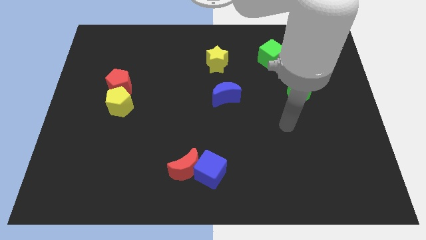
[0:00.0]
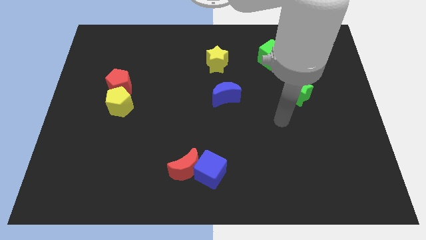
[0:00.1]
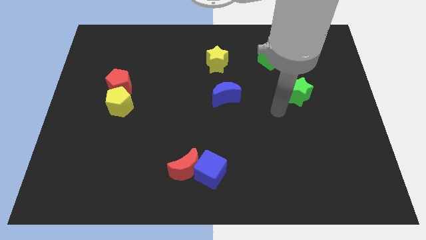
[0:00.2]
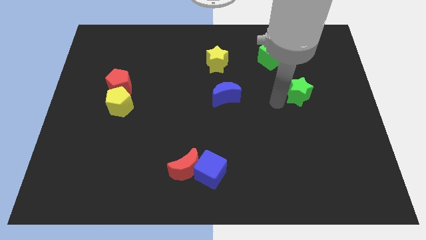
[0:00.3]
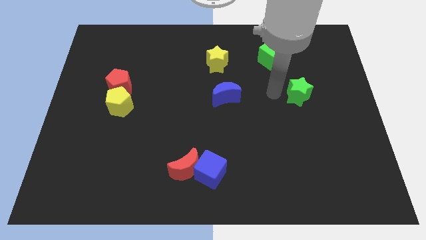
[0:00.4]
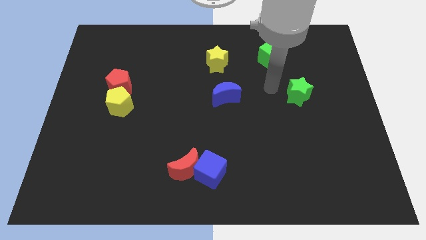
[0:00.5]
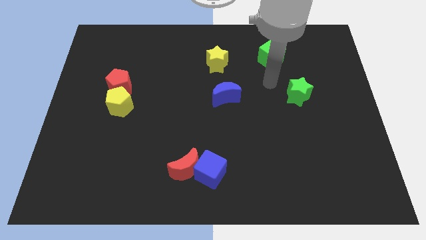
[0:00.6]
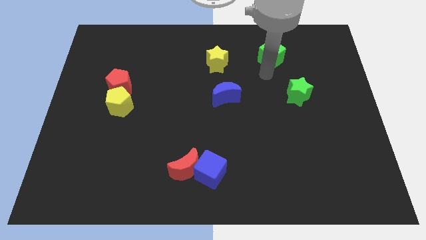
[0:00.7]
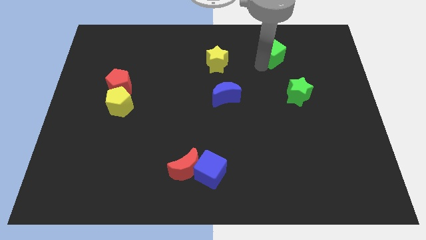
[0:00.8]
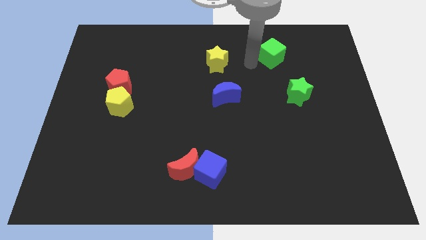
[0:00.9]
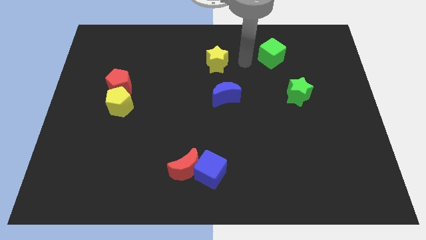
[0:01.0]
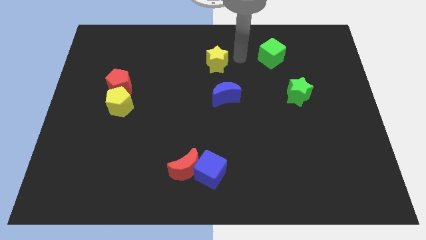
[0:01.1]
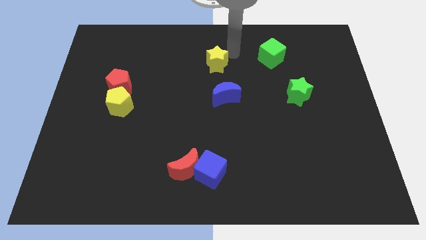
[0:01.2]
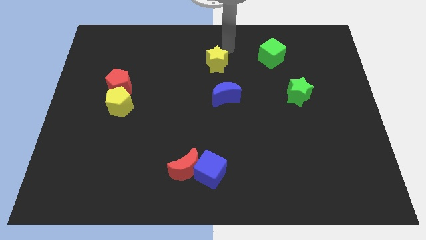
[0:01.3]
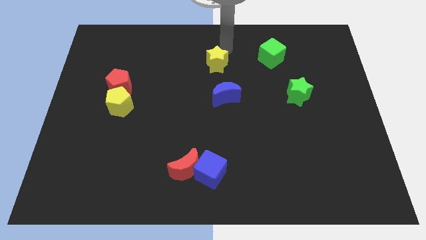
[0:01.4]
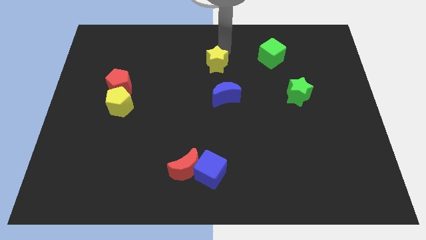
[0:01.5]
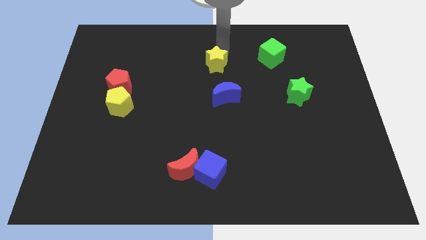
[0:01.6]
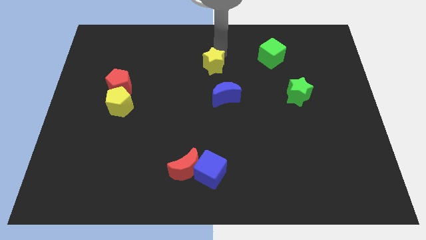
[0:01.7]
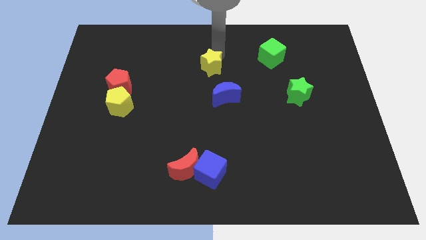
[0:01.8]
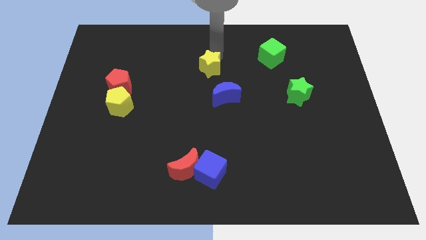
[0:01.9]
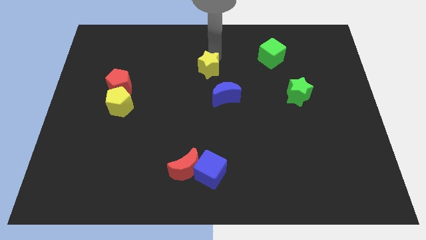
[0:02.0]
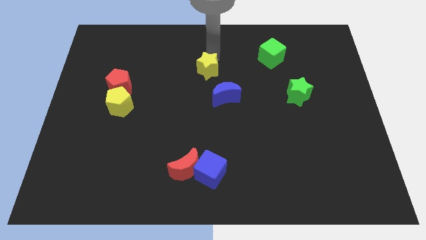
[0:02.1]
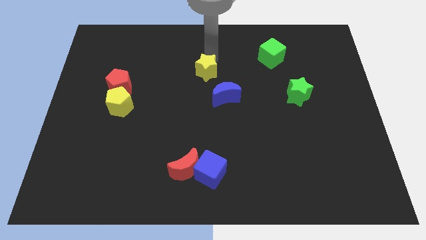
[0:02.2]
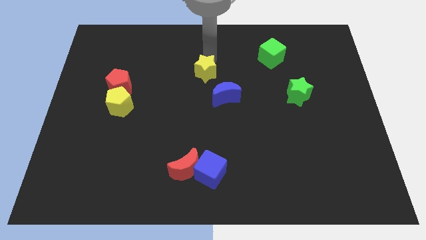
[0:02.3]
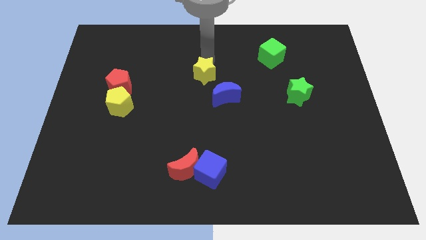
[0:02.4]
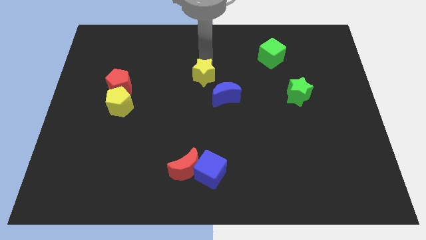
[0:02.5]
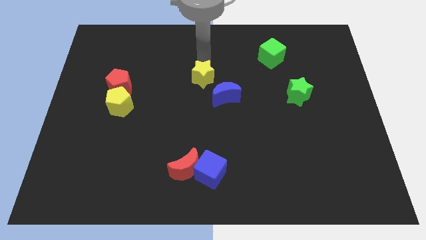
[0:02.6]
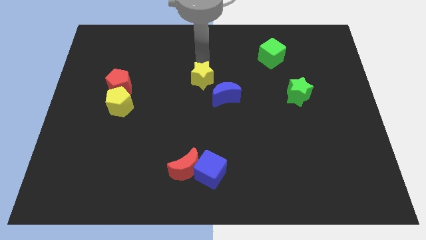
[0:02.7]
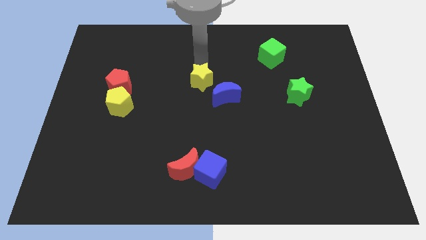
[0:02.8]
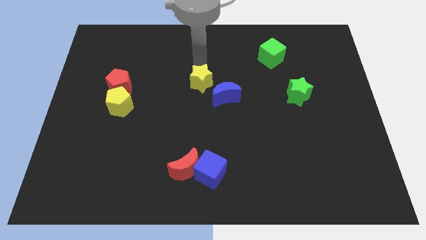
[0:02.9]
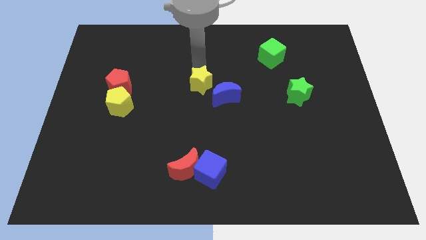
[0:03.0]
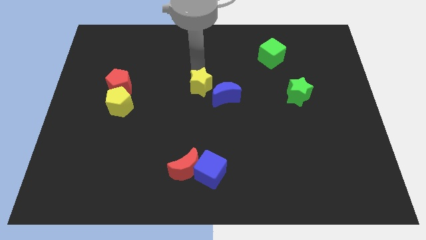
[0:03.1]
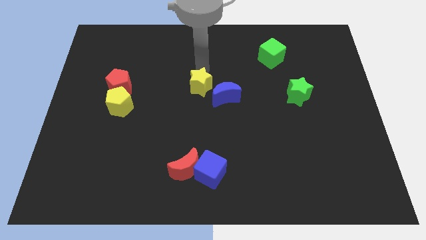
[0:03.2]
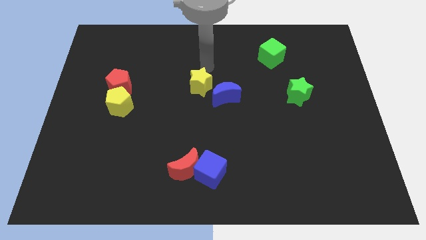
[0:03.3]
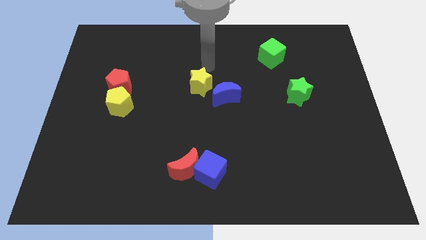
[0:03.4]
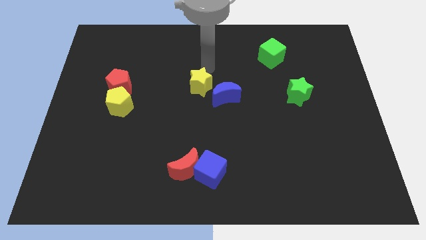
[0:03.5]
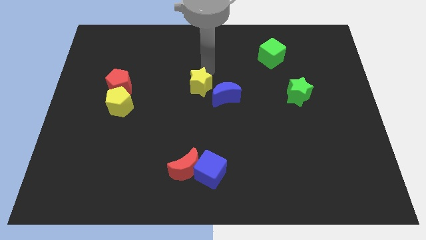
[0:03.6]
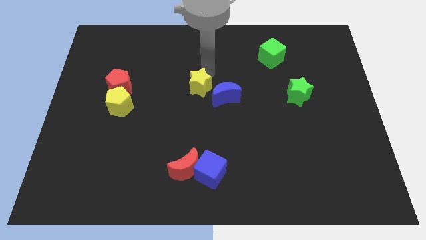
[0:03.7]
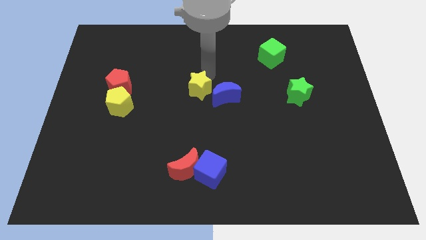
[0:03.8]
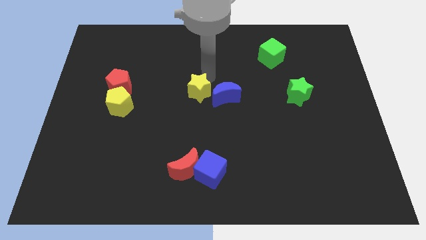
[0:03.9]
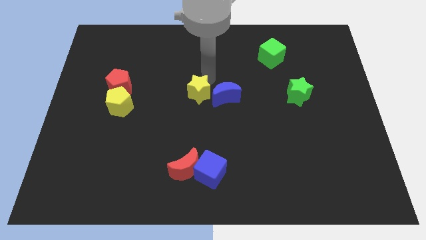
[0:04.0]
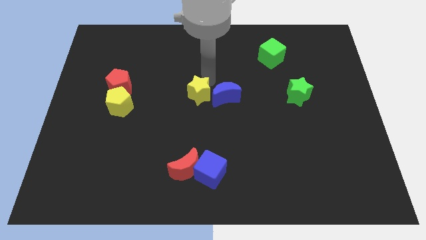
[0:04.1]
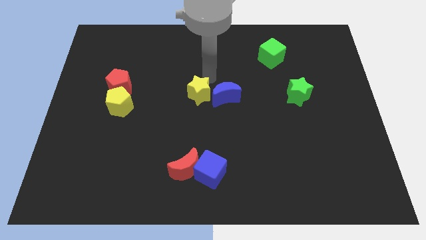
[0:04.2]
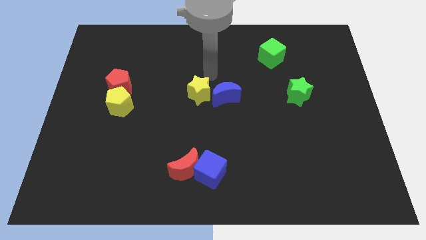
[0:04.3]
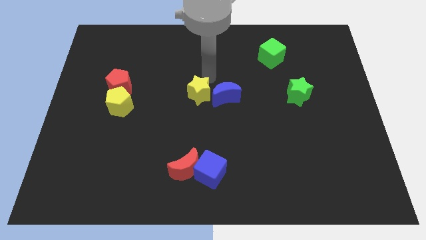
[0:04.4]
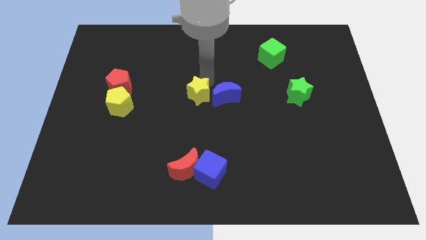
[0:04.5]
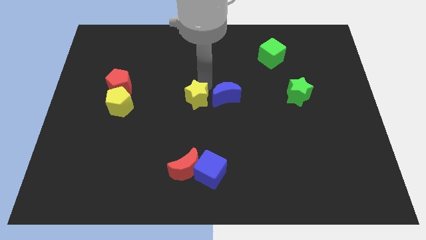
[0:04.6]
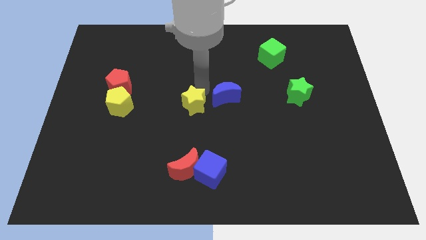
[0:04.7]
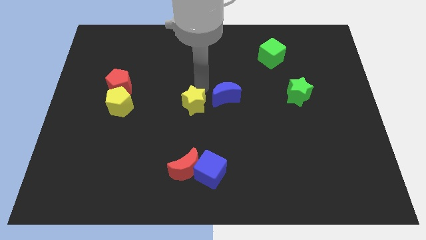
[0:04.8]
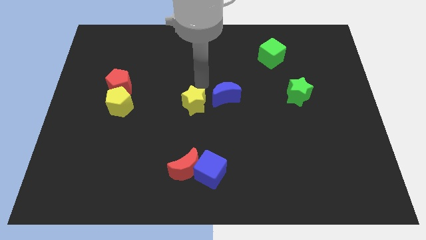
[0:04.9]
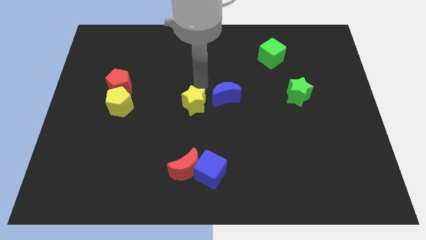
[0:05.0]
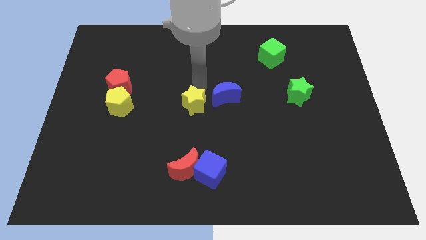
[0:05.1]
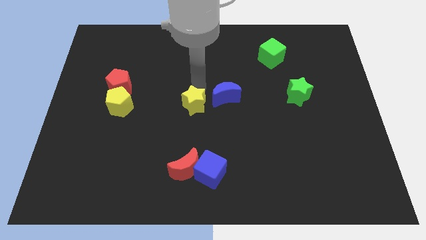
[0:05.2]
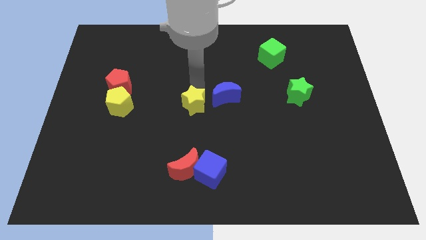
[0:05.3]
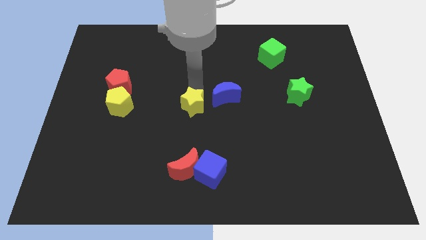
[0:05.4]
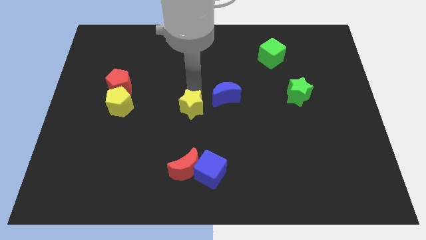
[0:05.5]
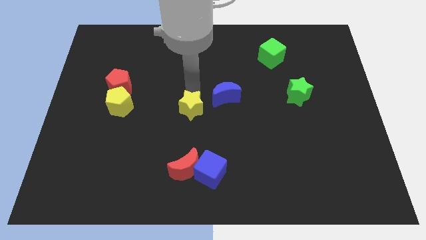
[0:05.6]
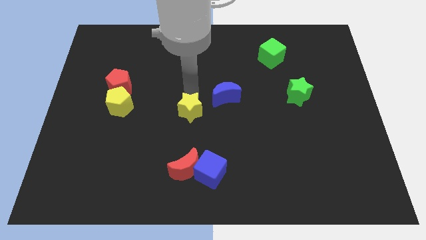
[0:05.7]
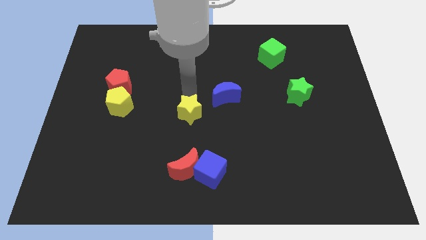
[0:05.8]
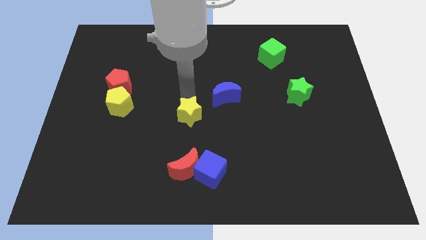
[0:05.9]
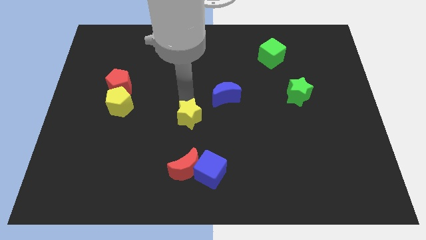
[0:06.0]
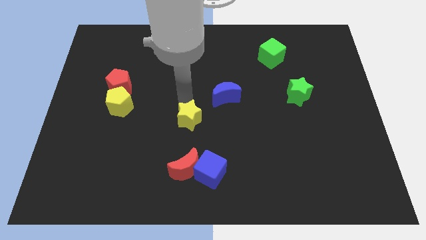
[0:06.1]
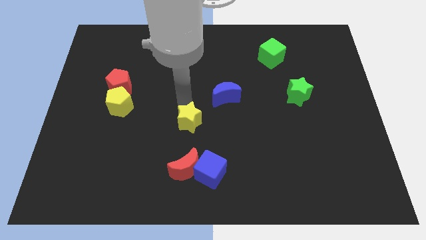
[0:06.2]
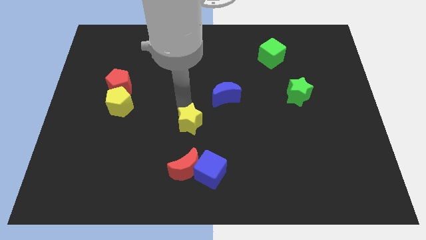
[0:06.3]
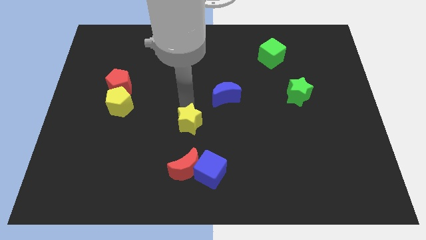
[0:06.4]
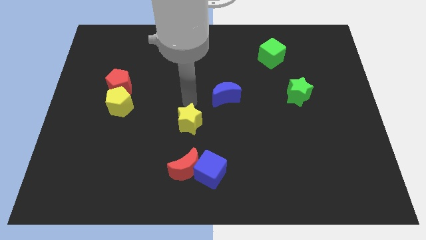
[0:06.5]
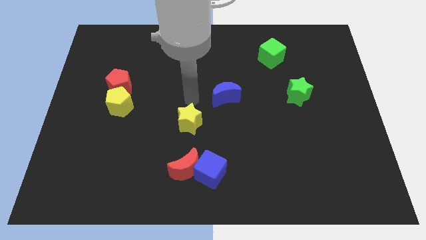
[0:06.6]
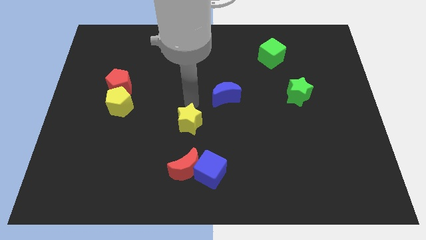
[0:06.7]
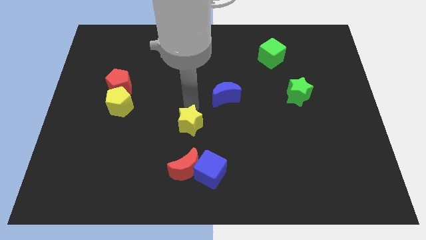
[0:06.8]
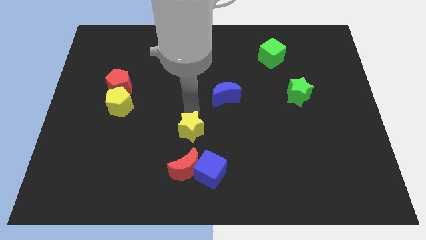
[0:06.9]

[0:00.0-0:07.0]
slide the yellow star to the top left of the blue cube
